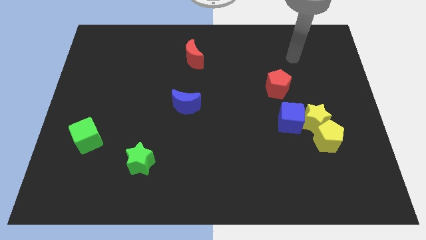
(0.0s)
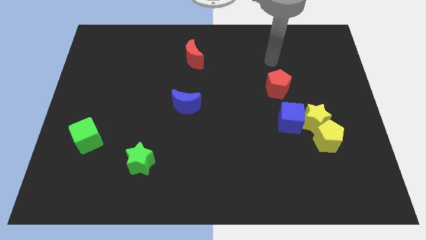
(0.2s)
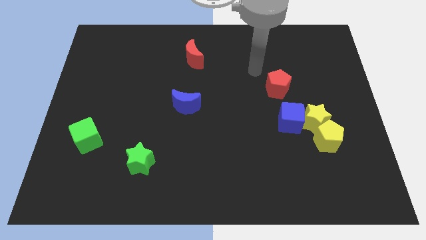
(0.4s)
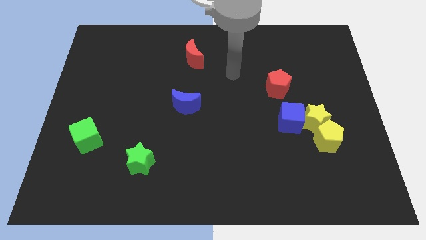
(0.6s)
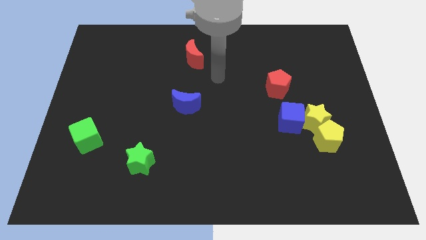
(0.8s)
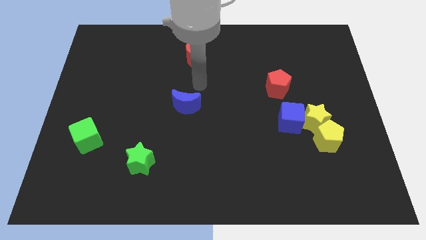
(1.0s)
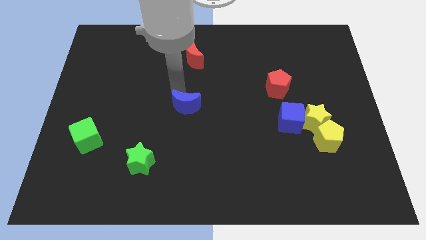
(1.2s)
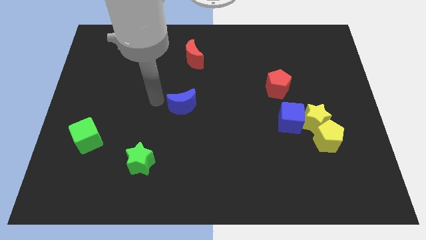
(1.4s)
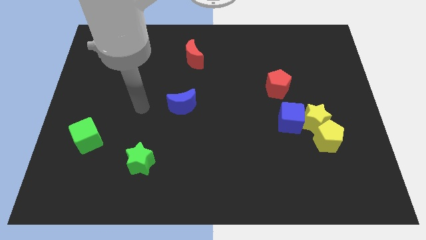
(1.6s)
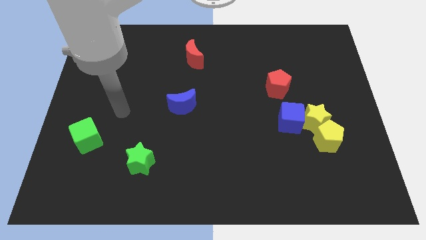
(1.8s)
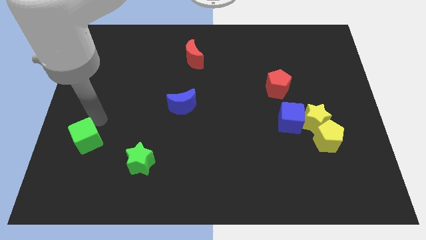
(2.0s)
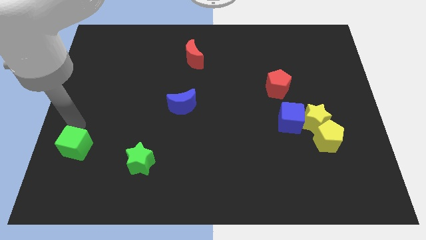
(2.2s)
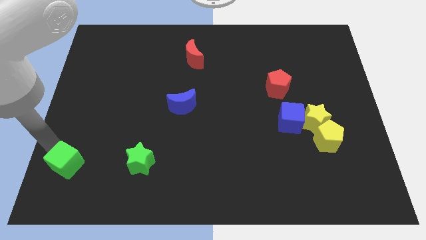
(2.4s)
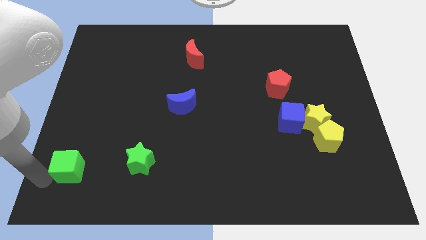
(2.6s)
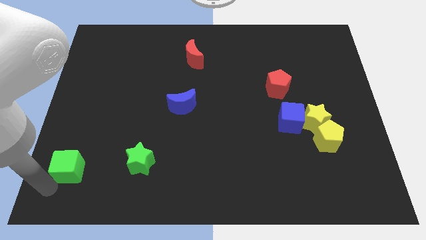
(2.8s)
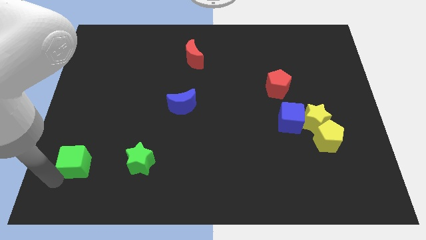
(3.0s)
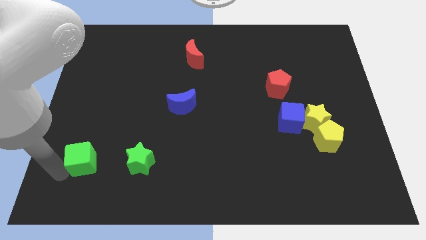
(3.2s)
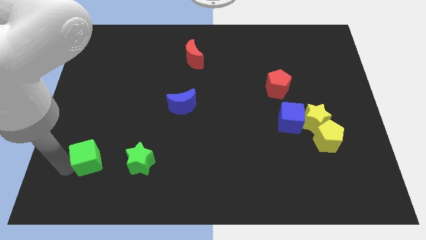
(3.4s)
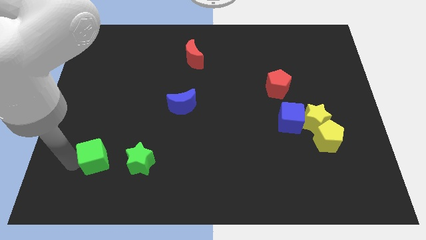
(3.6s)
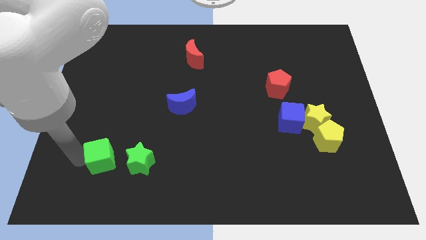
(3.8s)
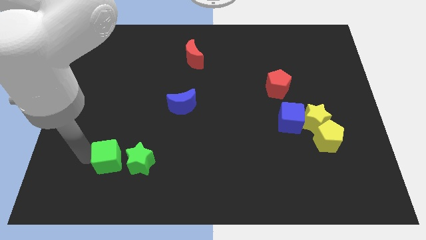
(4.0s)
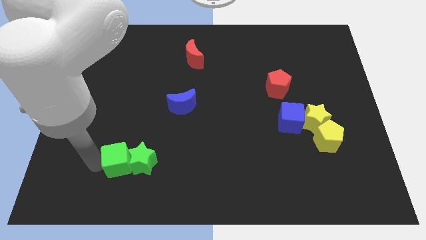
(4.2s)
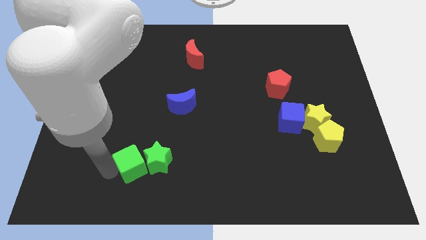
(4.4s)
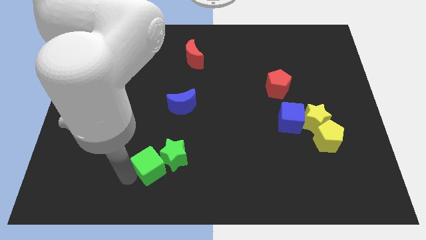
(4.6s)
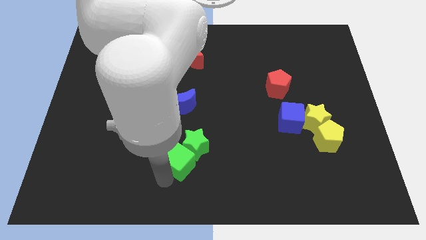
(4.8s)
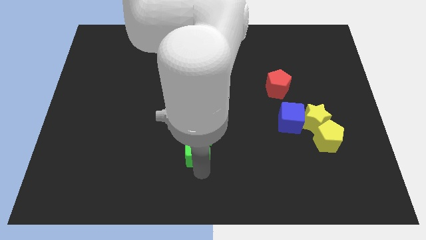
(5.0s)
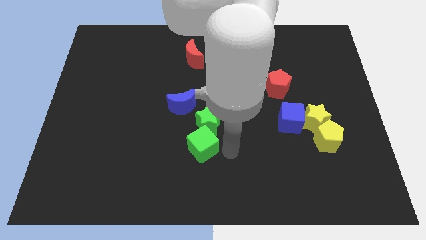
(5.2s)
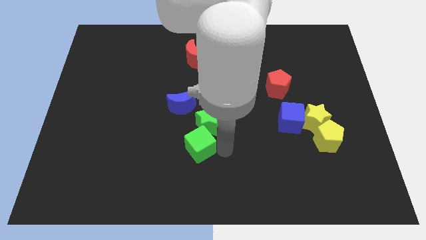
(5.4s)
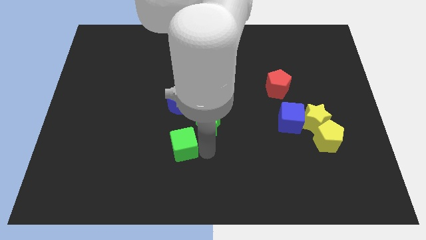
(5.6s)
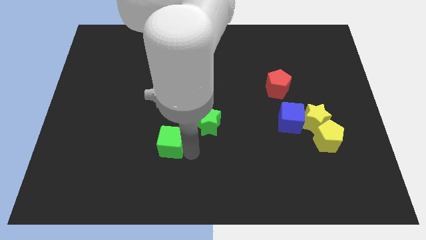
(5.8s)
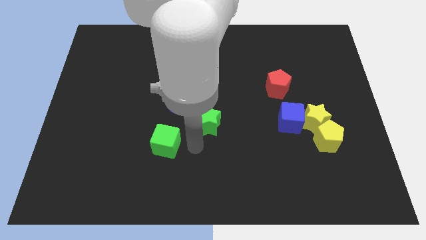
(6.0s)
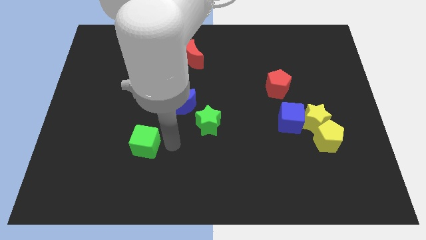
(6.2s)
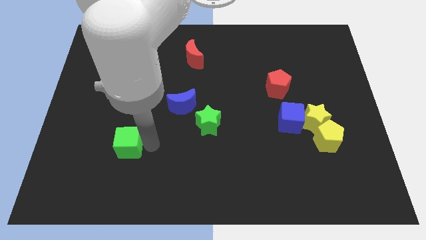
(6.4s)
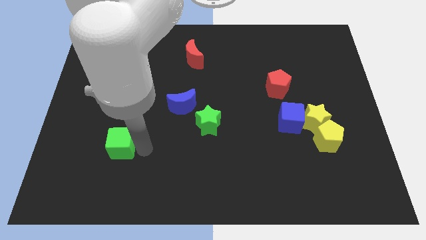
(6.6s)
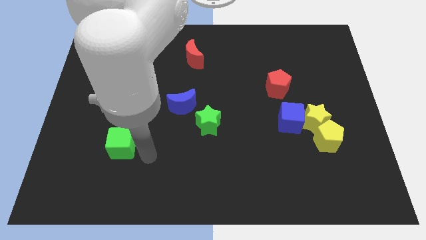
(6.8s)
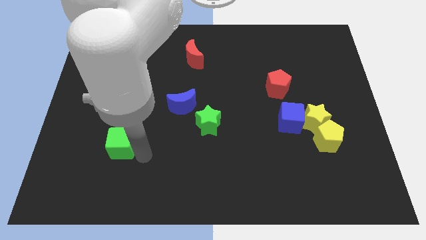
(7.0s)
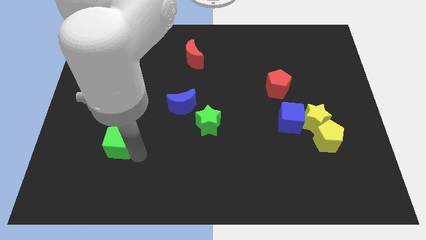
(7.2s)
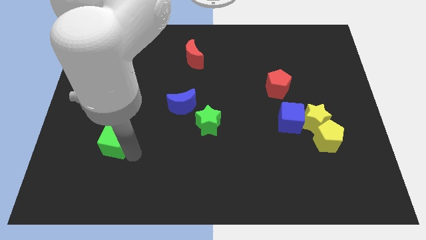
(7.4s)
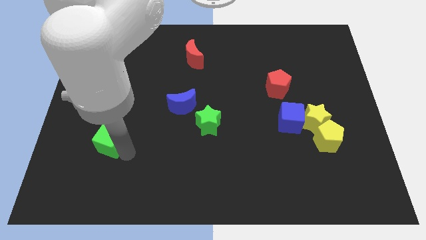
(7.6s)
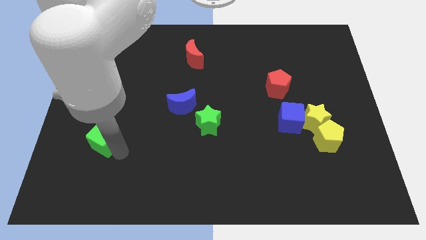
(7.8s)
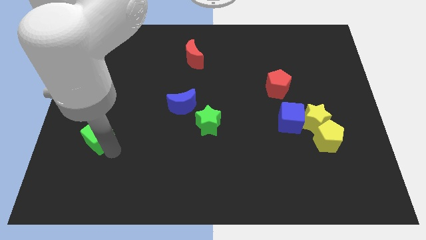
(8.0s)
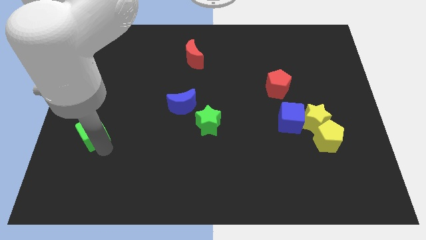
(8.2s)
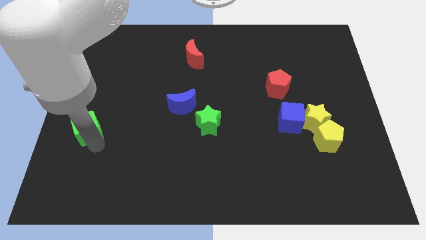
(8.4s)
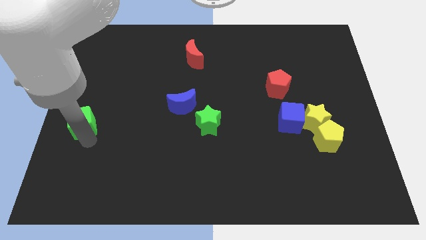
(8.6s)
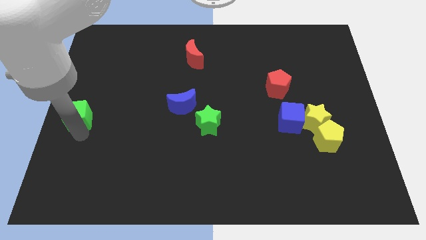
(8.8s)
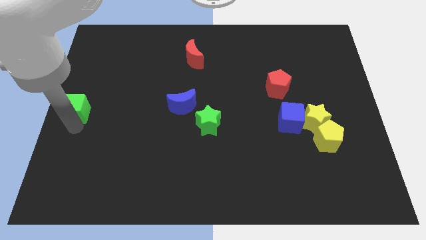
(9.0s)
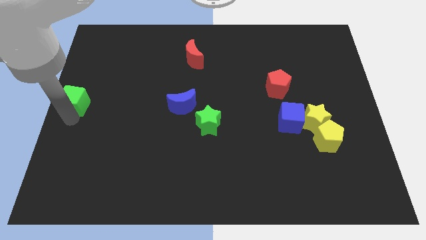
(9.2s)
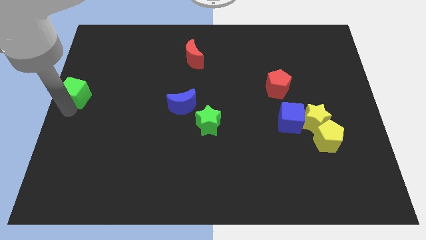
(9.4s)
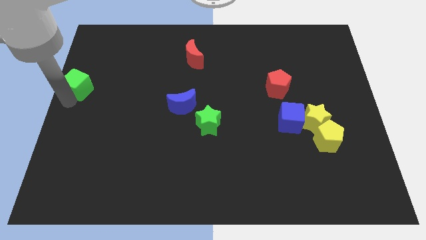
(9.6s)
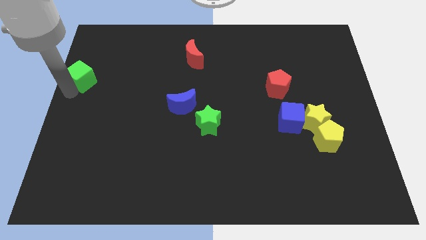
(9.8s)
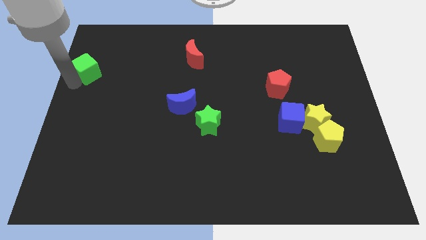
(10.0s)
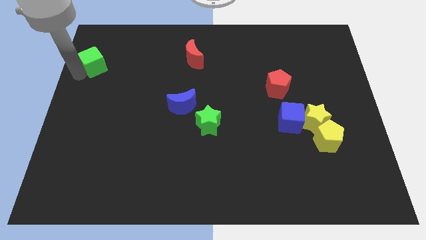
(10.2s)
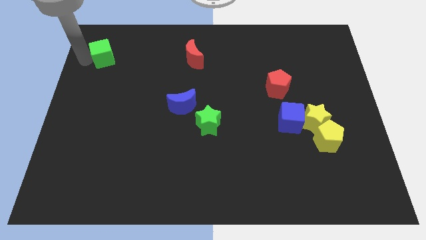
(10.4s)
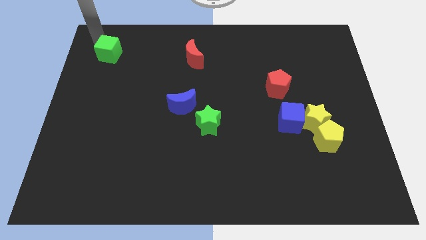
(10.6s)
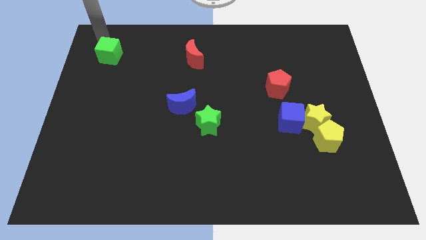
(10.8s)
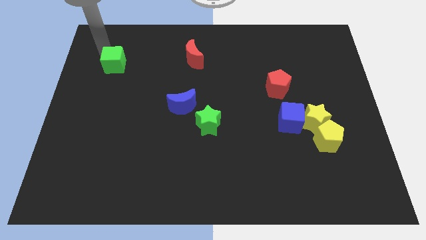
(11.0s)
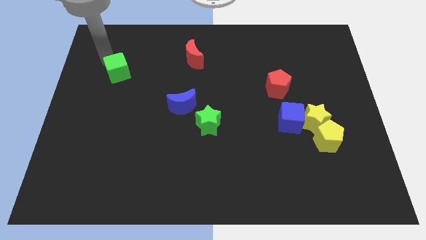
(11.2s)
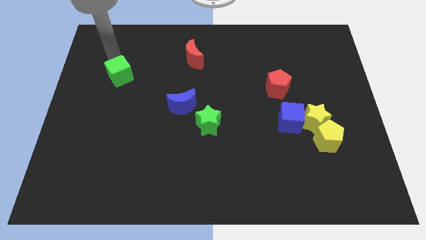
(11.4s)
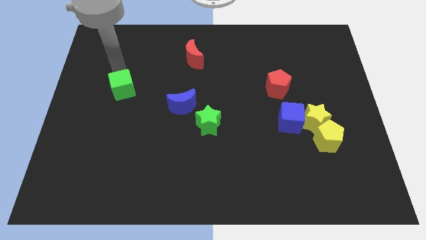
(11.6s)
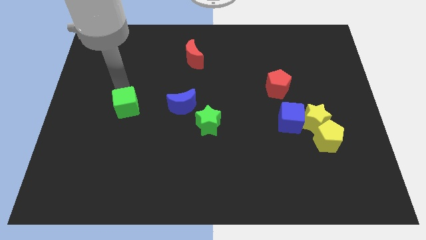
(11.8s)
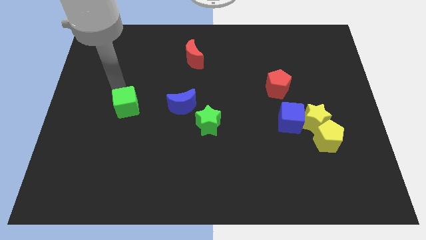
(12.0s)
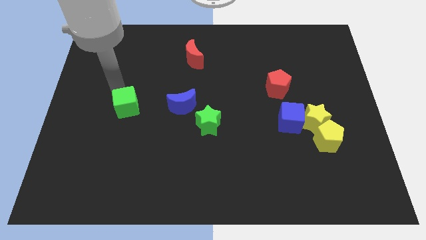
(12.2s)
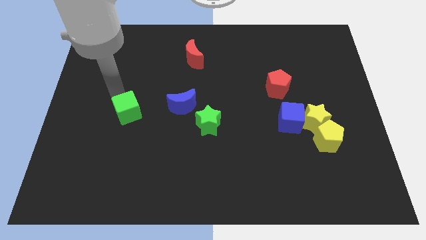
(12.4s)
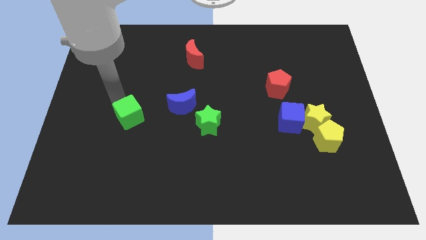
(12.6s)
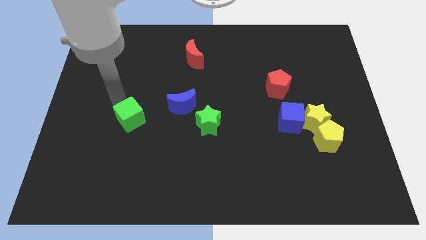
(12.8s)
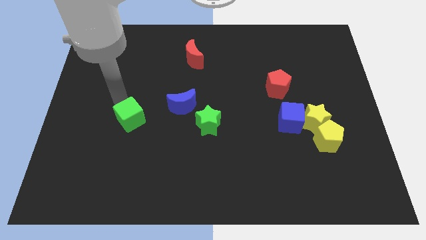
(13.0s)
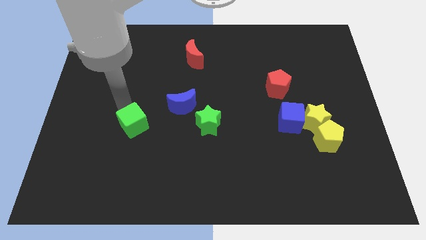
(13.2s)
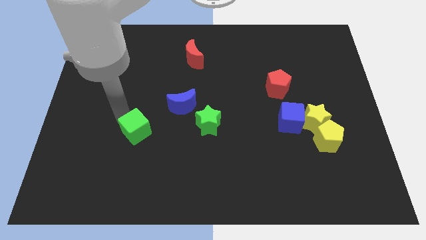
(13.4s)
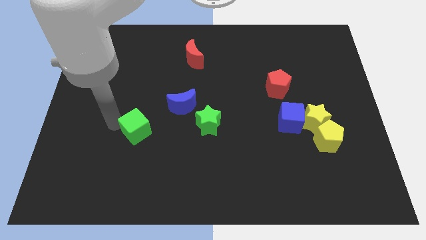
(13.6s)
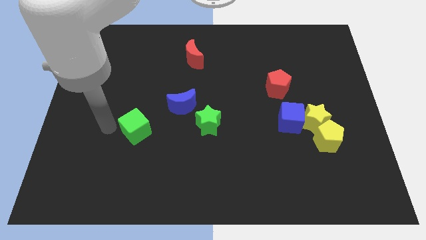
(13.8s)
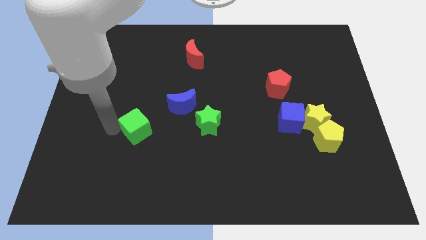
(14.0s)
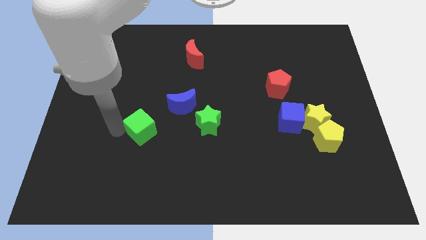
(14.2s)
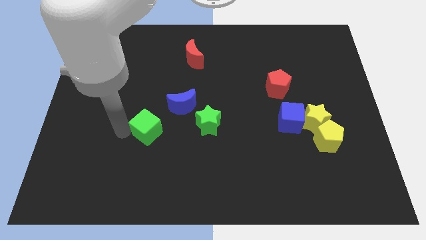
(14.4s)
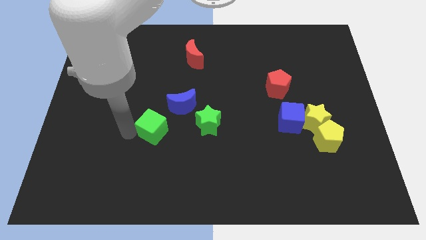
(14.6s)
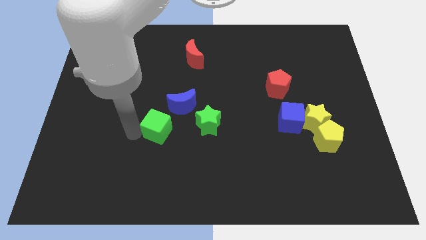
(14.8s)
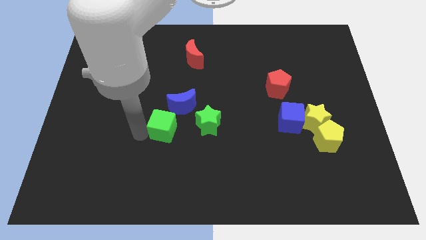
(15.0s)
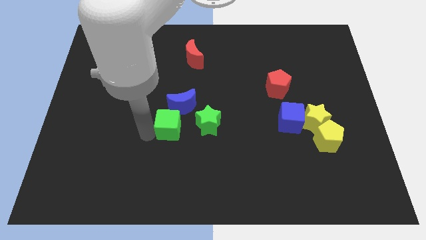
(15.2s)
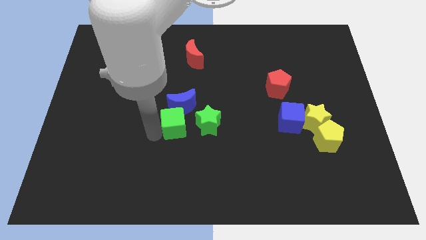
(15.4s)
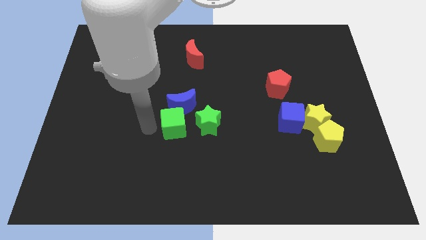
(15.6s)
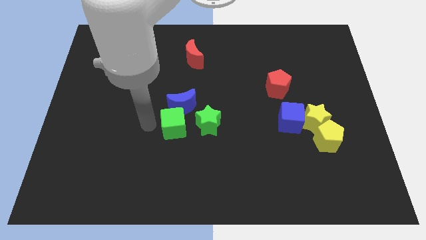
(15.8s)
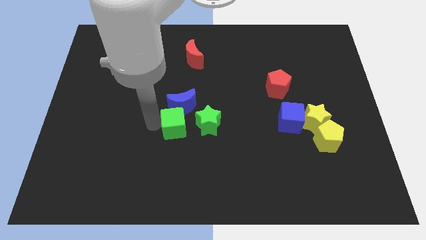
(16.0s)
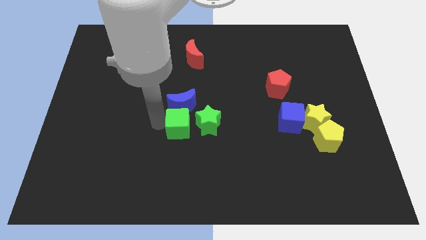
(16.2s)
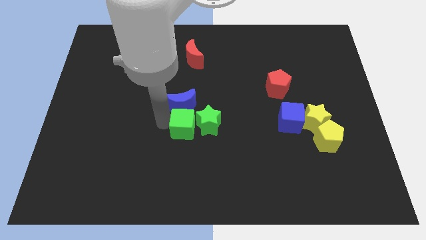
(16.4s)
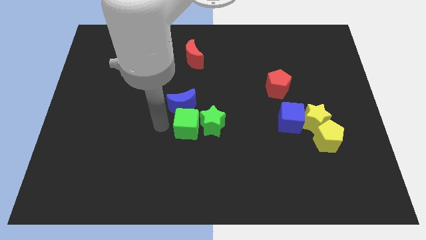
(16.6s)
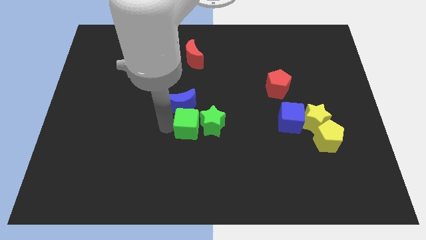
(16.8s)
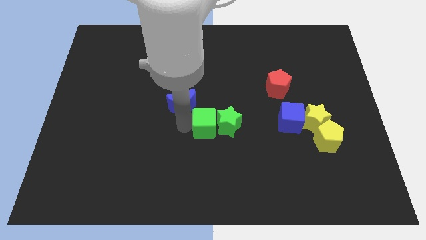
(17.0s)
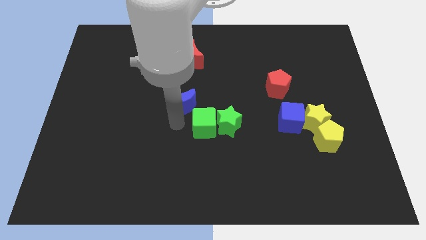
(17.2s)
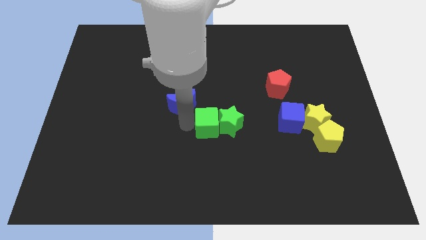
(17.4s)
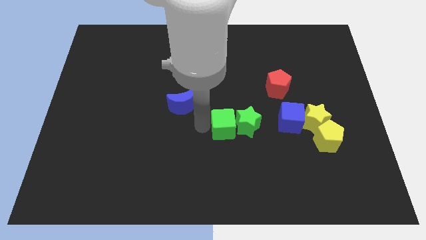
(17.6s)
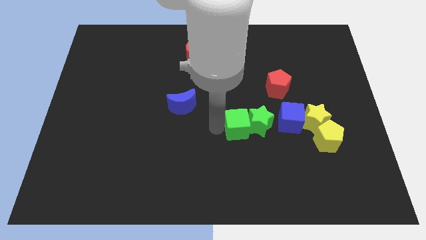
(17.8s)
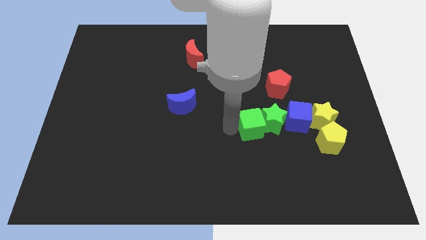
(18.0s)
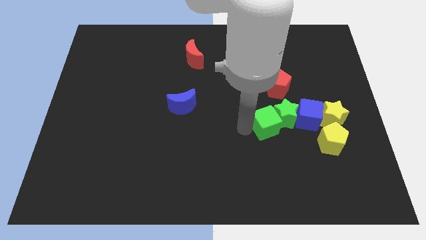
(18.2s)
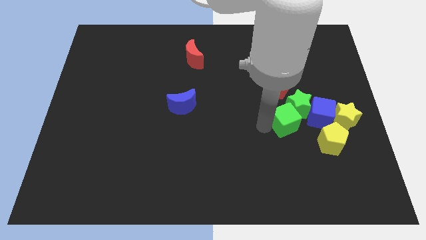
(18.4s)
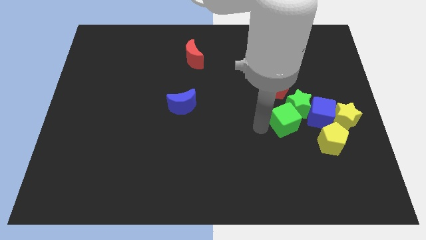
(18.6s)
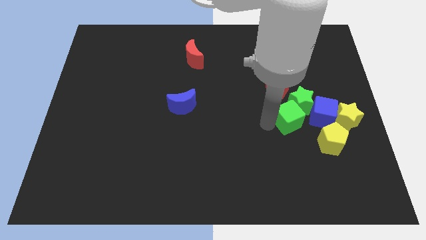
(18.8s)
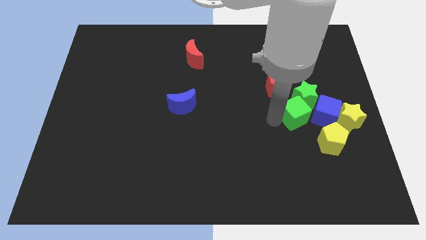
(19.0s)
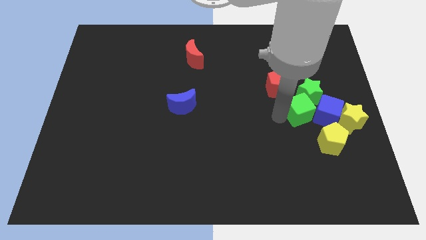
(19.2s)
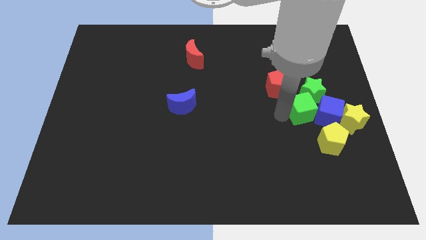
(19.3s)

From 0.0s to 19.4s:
push the green cube to the blue cube
